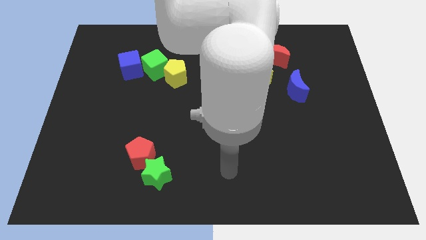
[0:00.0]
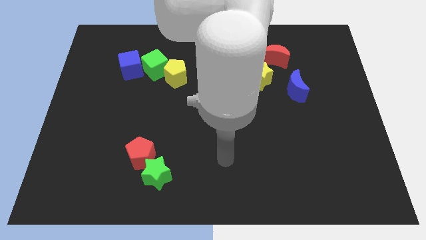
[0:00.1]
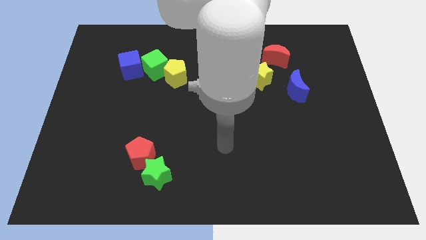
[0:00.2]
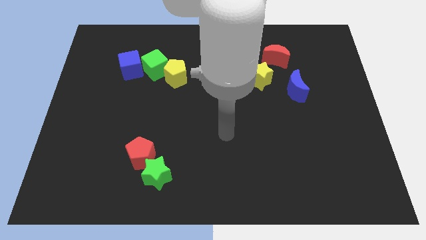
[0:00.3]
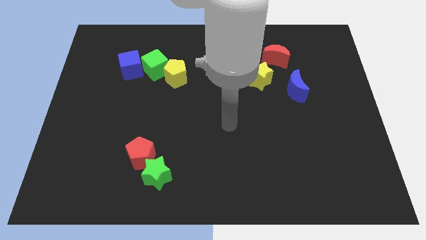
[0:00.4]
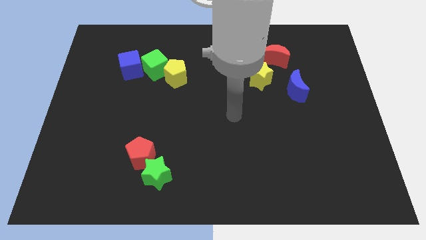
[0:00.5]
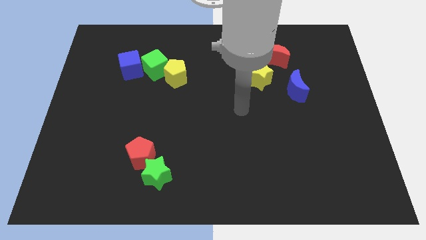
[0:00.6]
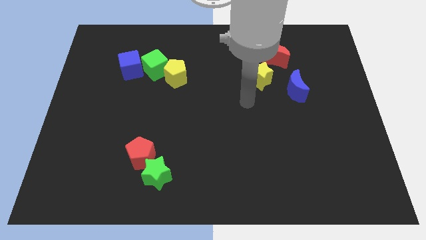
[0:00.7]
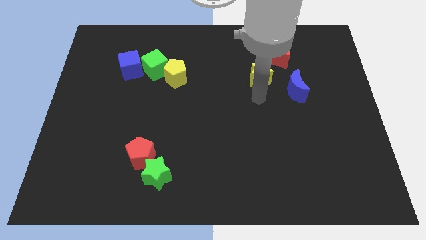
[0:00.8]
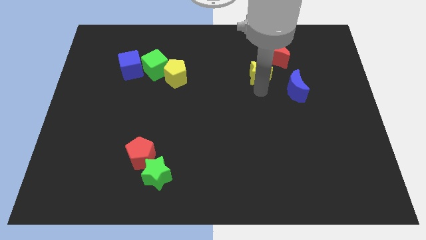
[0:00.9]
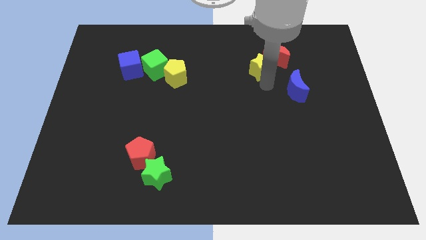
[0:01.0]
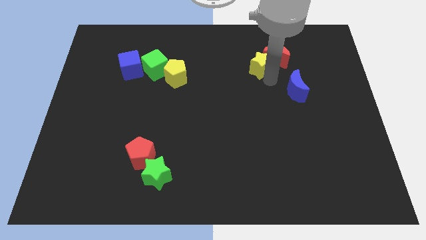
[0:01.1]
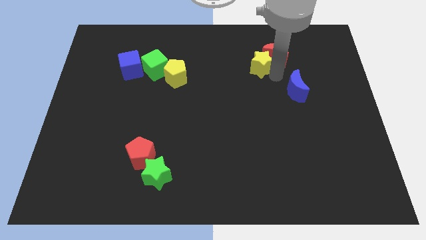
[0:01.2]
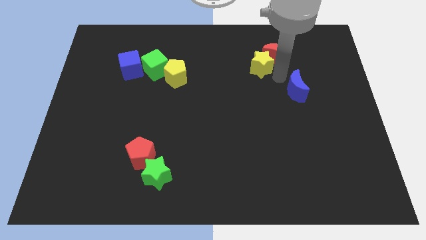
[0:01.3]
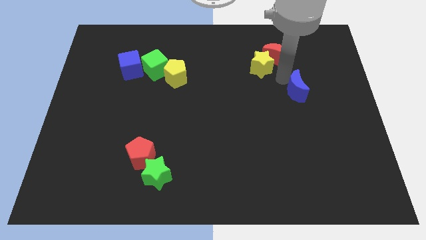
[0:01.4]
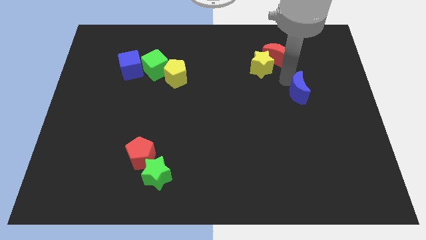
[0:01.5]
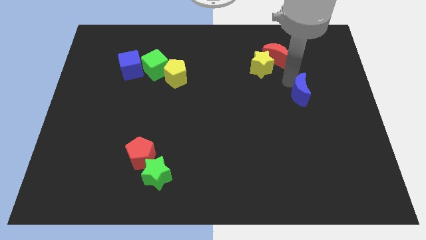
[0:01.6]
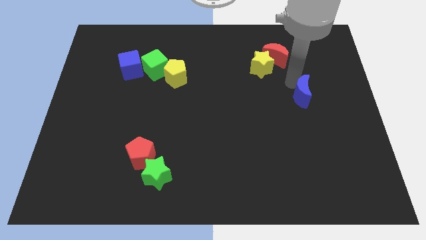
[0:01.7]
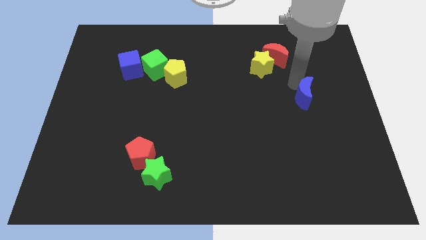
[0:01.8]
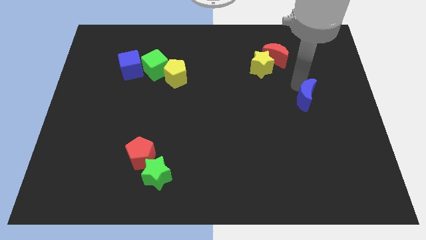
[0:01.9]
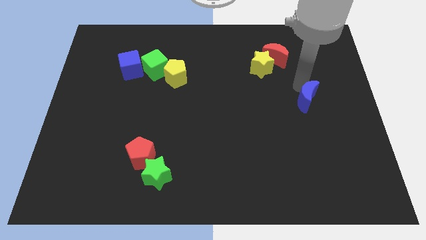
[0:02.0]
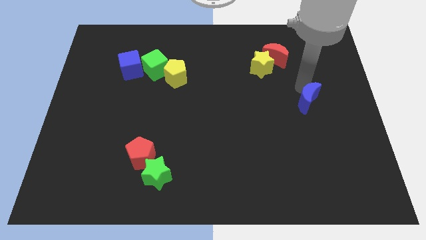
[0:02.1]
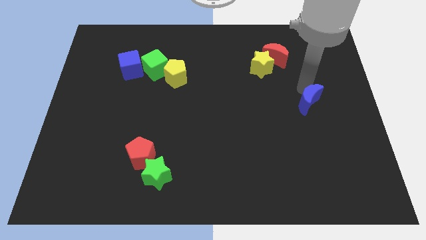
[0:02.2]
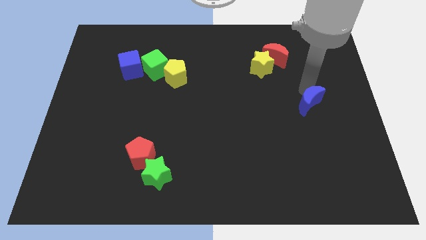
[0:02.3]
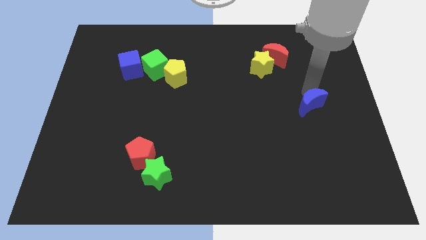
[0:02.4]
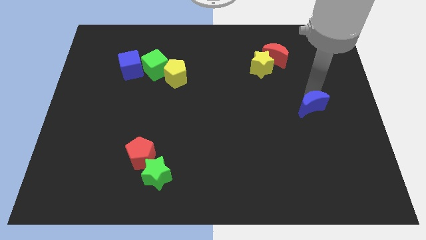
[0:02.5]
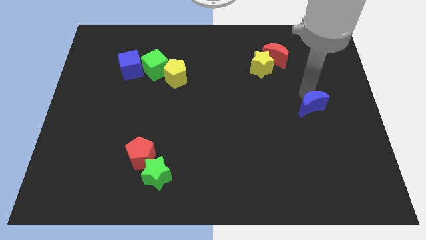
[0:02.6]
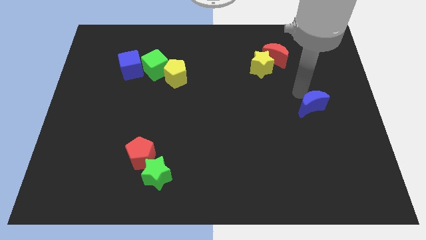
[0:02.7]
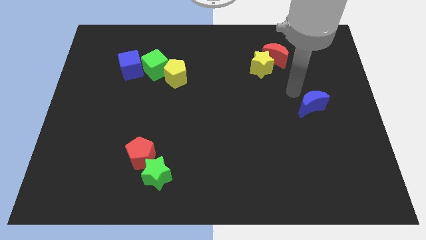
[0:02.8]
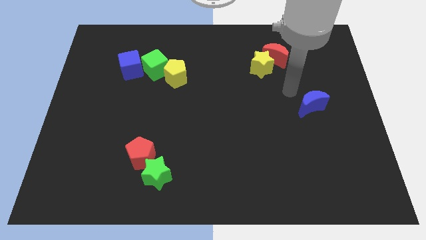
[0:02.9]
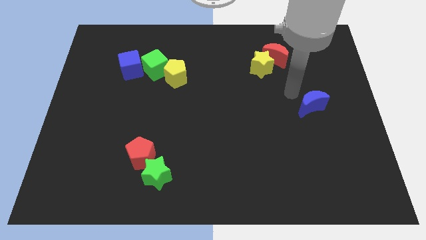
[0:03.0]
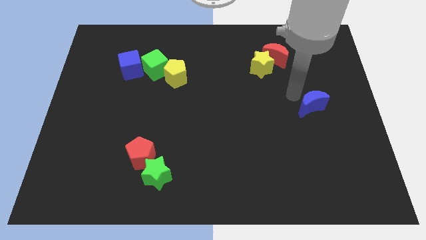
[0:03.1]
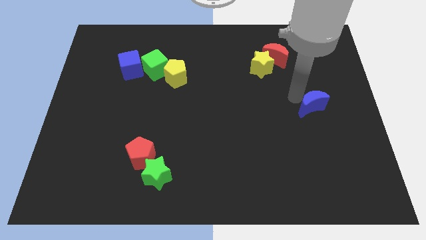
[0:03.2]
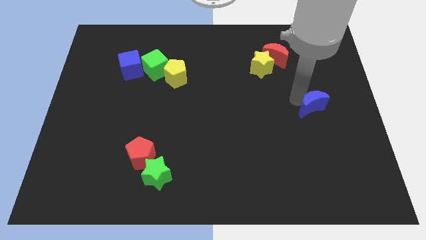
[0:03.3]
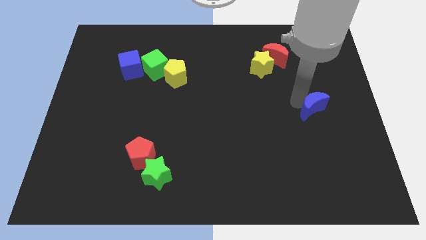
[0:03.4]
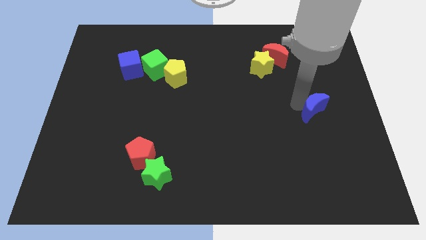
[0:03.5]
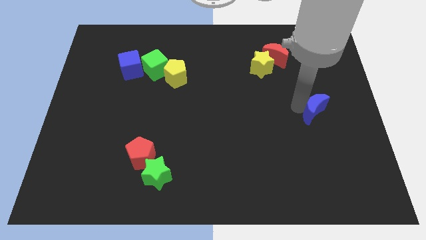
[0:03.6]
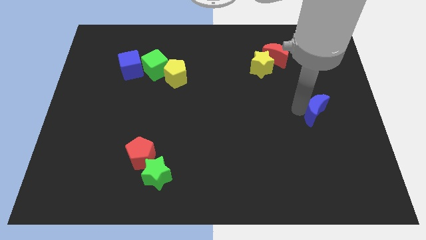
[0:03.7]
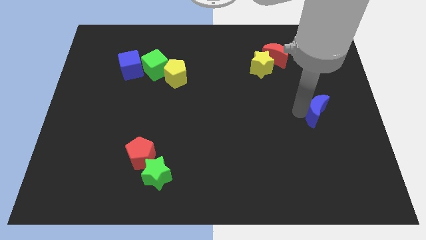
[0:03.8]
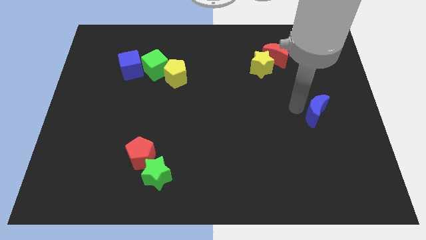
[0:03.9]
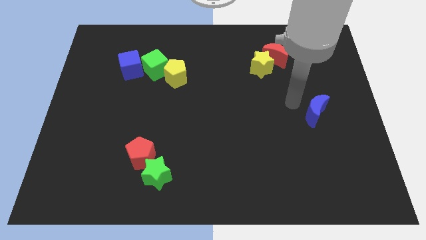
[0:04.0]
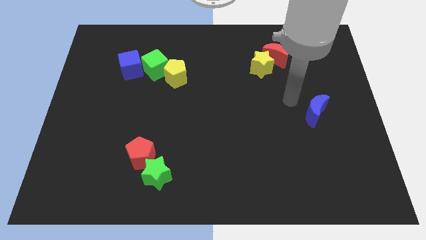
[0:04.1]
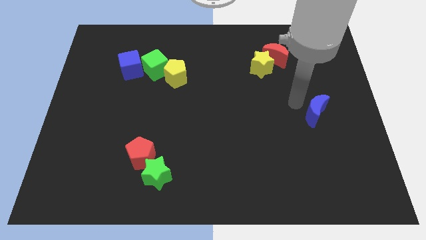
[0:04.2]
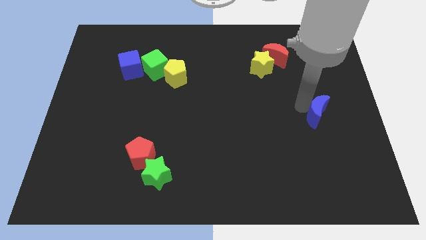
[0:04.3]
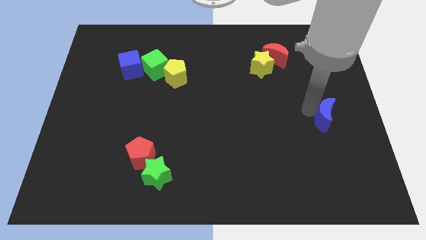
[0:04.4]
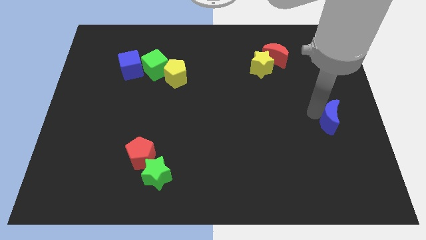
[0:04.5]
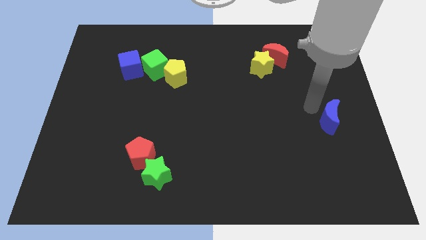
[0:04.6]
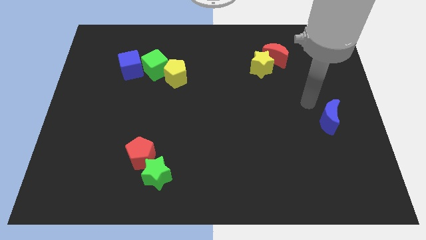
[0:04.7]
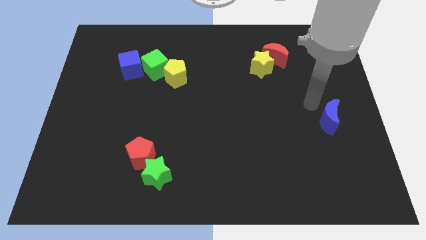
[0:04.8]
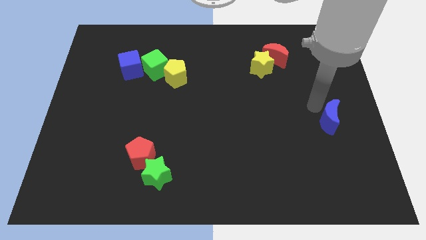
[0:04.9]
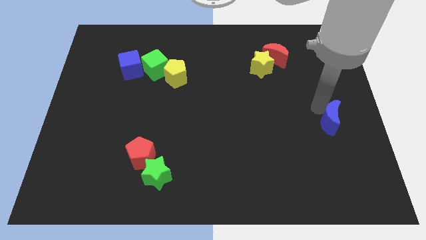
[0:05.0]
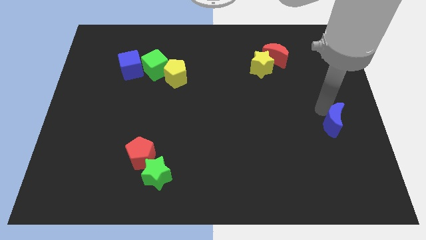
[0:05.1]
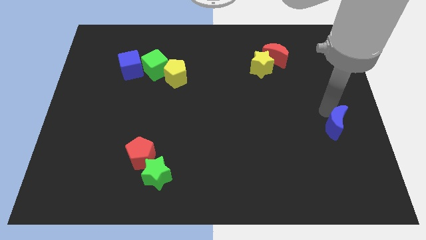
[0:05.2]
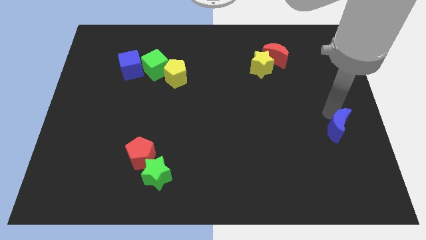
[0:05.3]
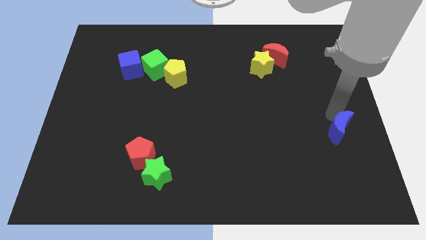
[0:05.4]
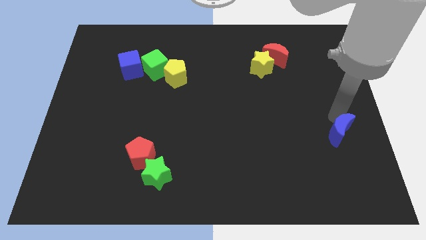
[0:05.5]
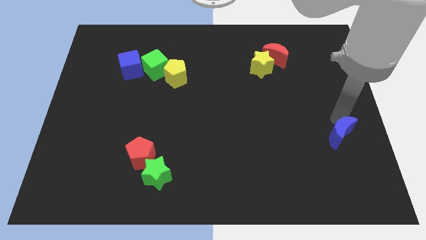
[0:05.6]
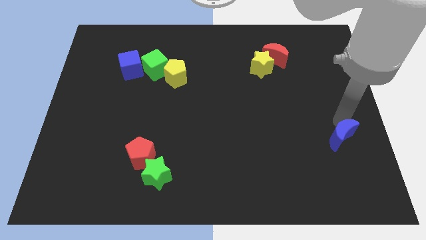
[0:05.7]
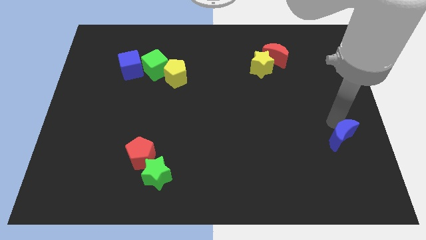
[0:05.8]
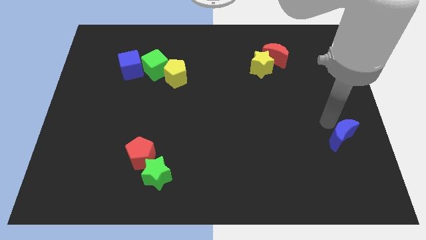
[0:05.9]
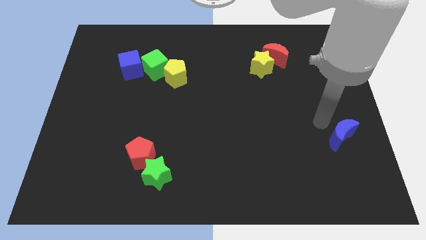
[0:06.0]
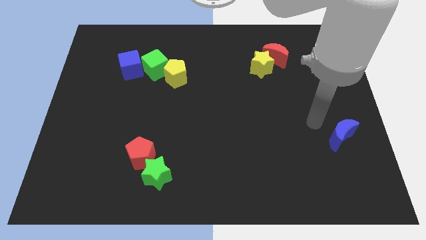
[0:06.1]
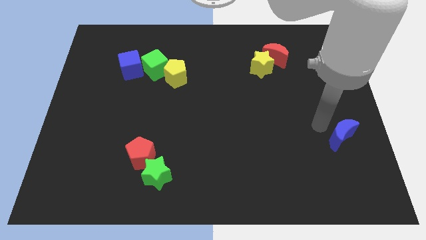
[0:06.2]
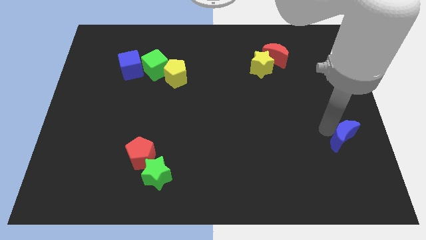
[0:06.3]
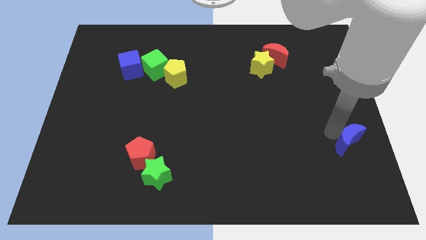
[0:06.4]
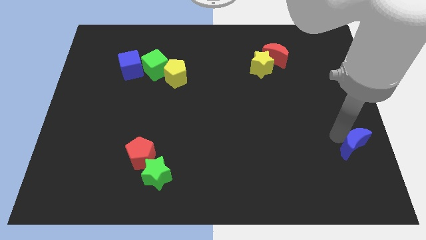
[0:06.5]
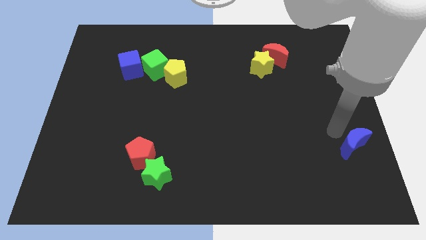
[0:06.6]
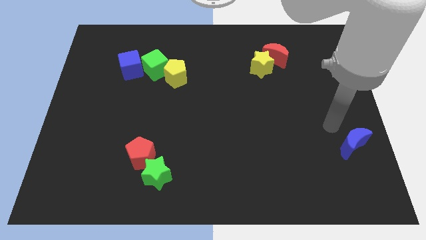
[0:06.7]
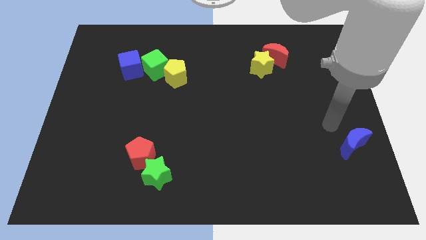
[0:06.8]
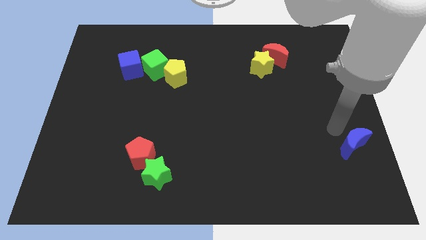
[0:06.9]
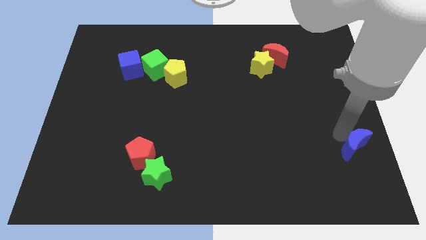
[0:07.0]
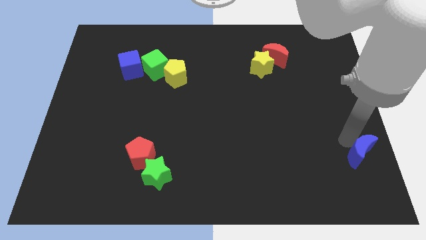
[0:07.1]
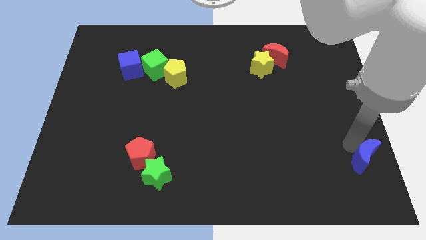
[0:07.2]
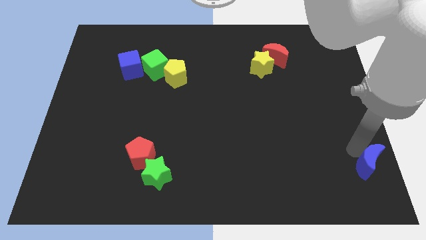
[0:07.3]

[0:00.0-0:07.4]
move the blue moon to the bottom right corner
